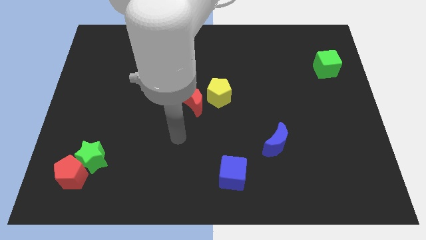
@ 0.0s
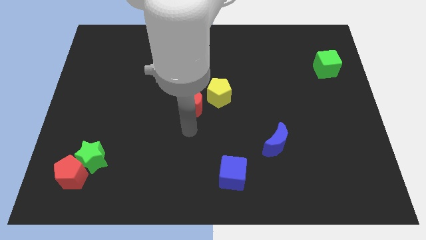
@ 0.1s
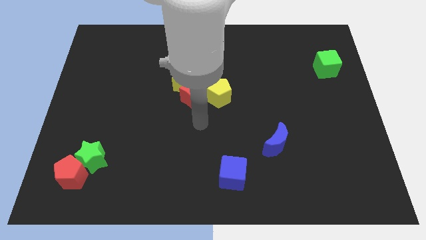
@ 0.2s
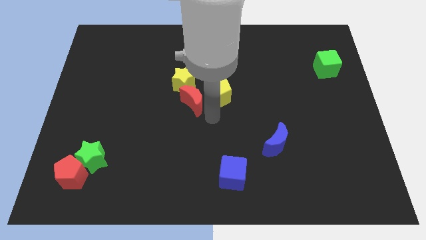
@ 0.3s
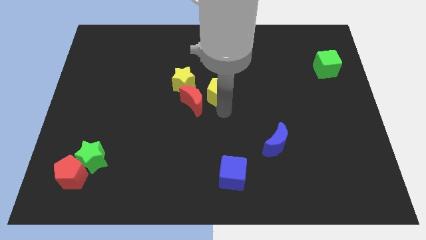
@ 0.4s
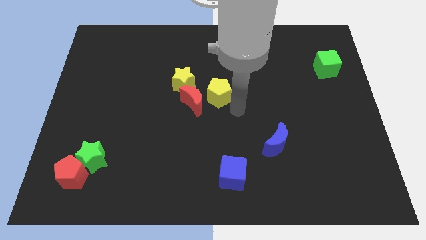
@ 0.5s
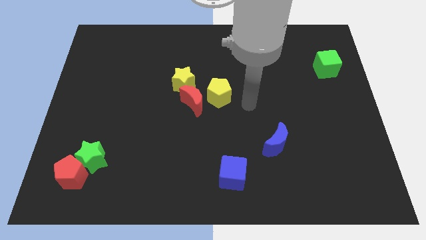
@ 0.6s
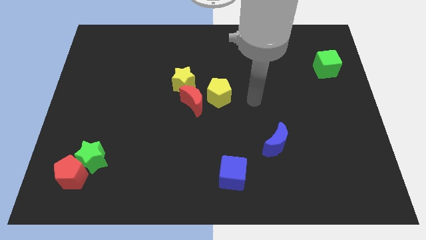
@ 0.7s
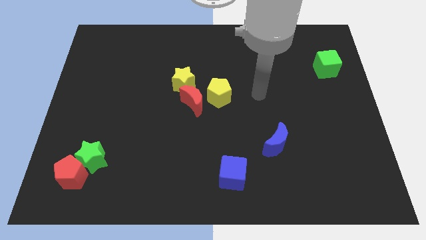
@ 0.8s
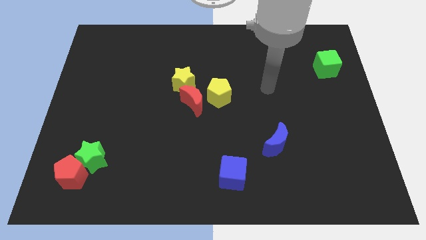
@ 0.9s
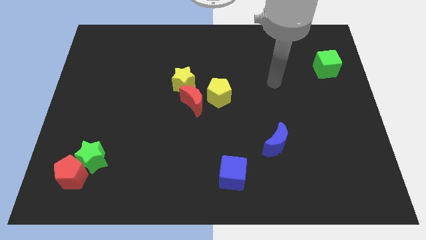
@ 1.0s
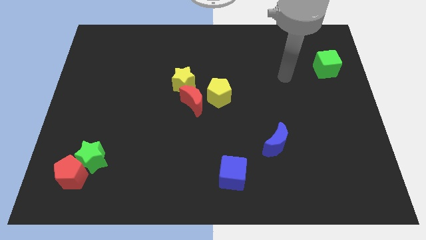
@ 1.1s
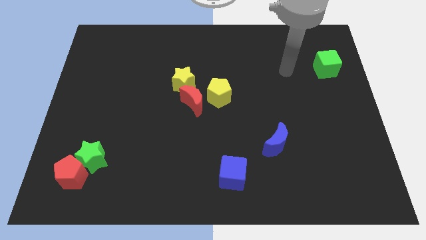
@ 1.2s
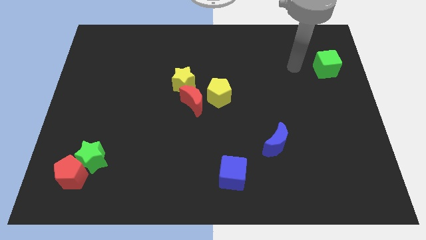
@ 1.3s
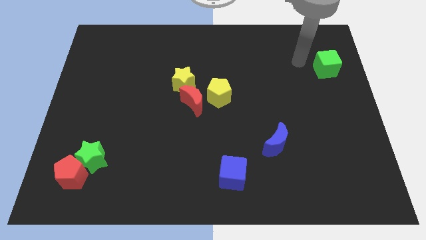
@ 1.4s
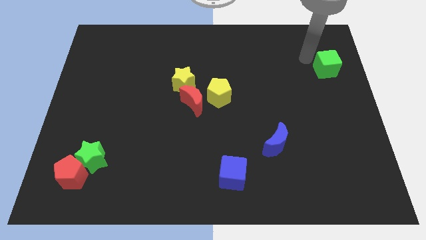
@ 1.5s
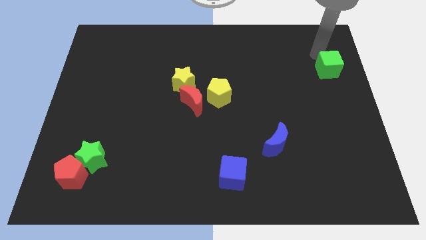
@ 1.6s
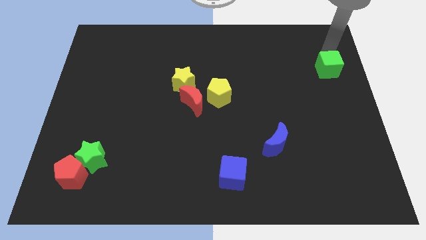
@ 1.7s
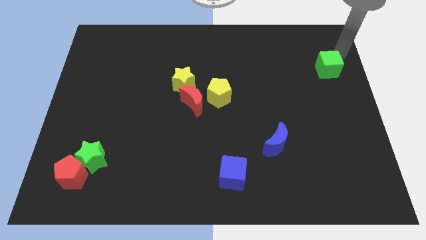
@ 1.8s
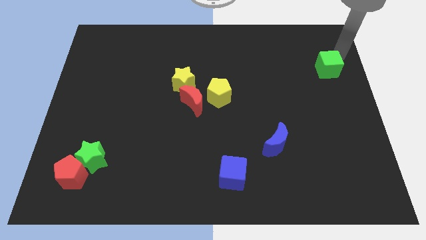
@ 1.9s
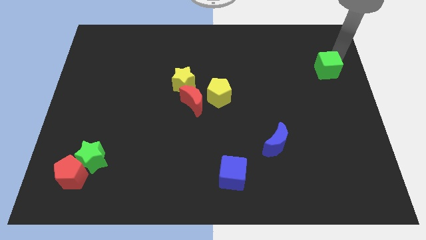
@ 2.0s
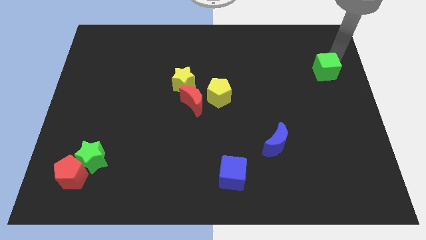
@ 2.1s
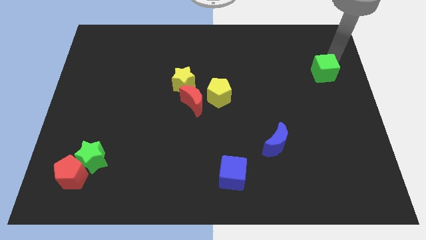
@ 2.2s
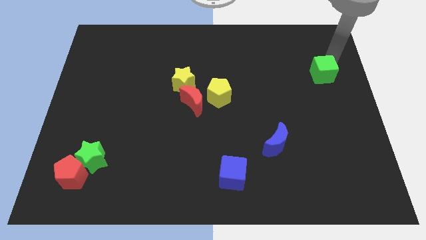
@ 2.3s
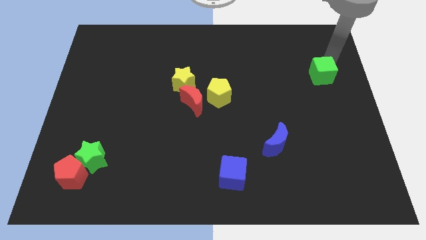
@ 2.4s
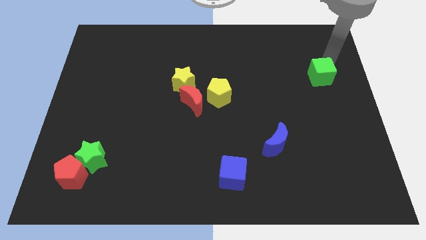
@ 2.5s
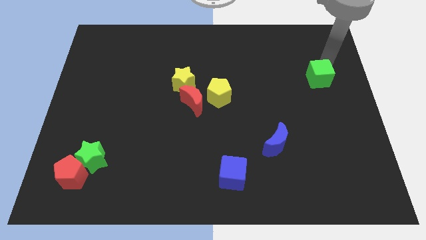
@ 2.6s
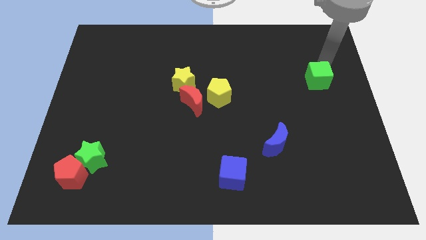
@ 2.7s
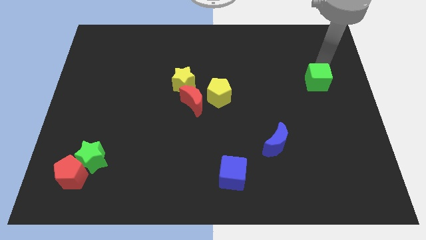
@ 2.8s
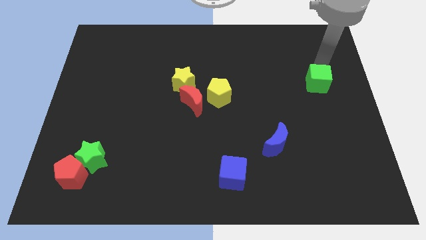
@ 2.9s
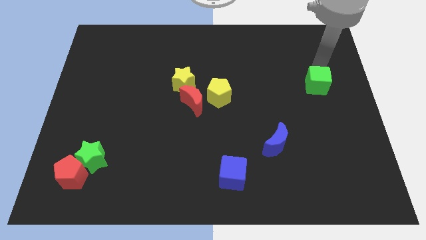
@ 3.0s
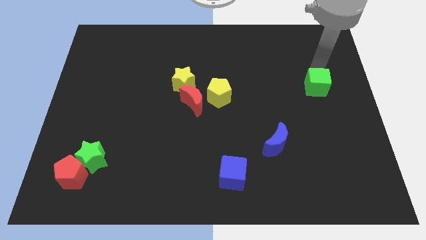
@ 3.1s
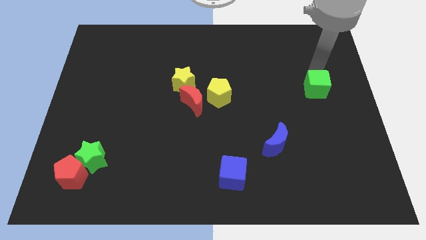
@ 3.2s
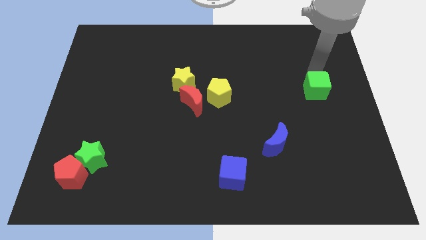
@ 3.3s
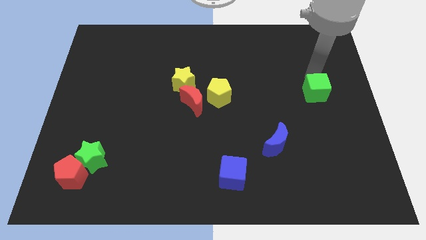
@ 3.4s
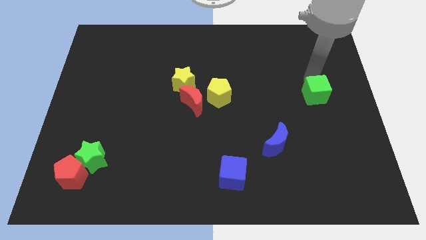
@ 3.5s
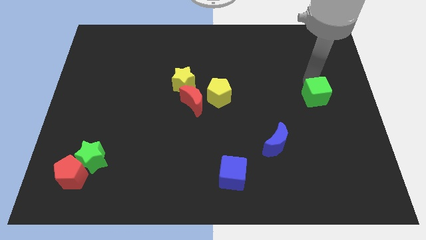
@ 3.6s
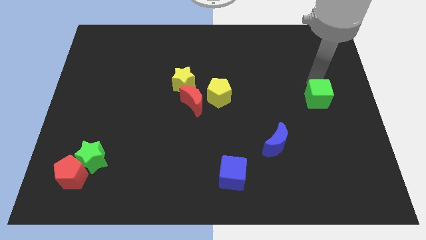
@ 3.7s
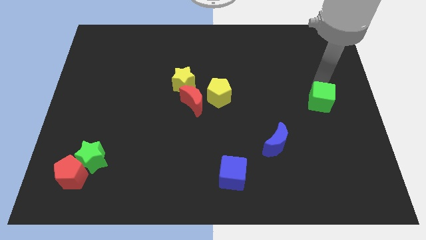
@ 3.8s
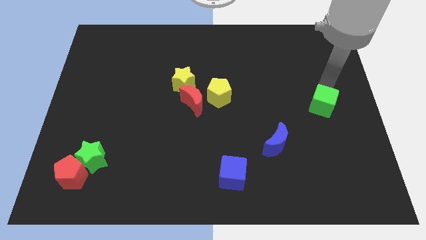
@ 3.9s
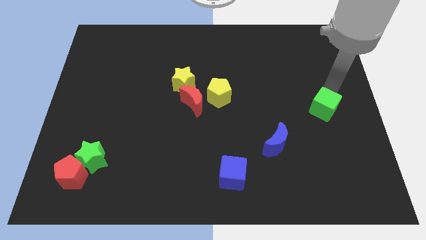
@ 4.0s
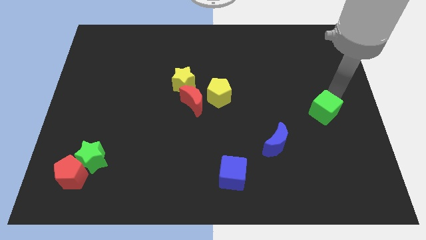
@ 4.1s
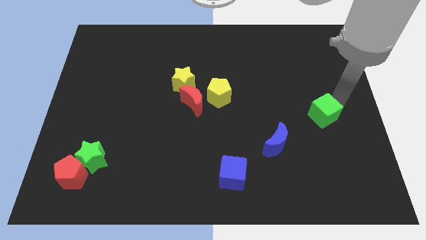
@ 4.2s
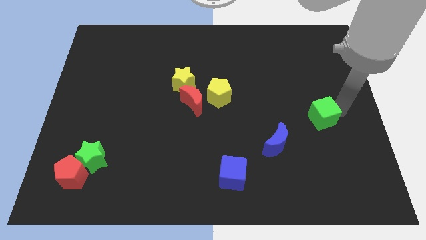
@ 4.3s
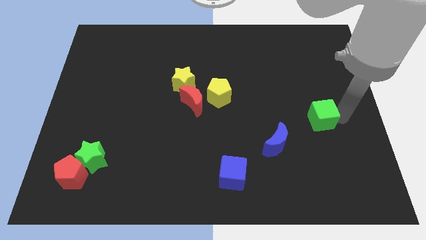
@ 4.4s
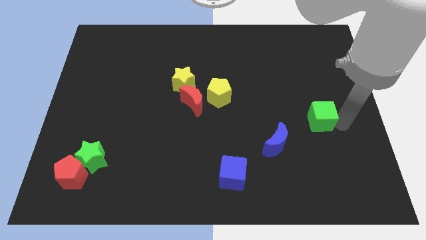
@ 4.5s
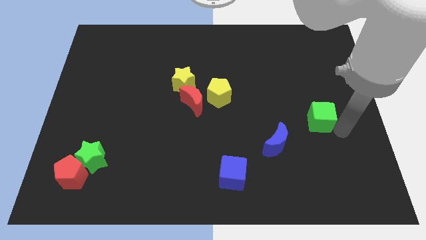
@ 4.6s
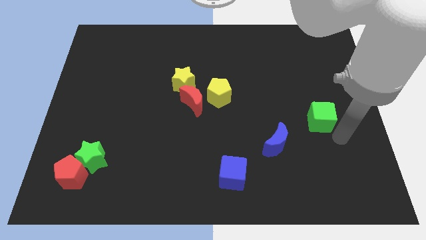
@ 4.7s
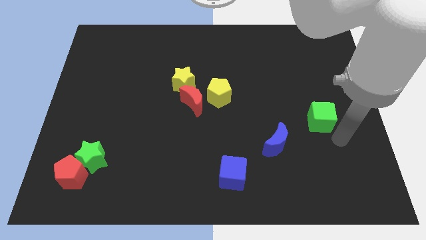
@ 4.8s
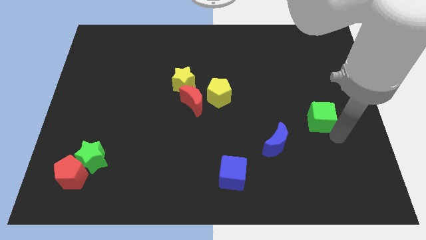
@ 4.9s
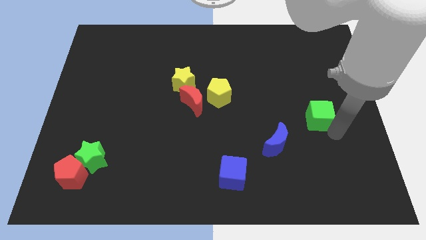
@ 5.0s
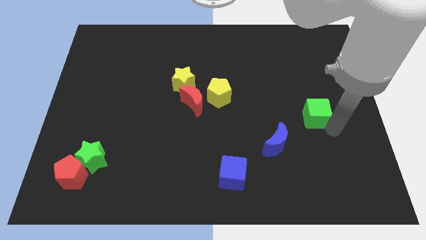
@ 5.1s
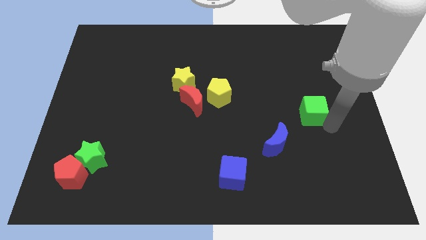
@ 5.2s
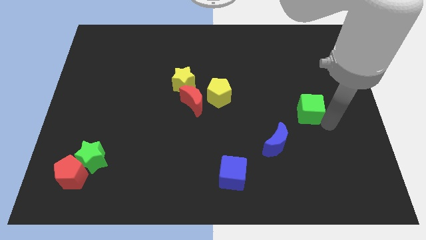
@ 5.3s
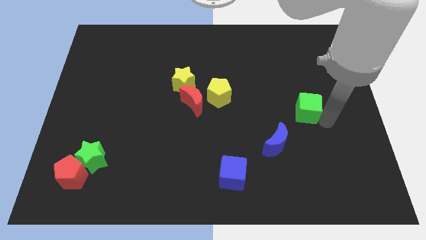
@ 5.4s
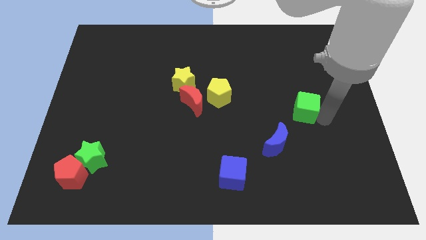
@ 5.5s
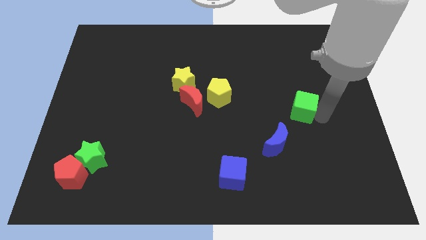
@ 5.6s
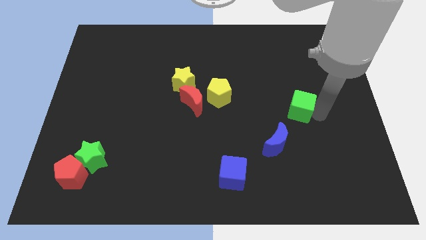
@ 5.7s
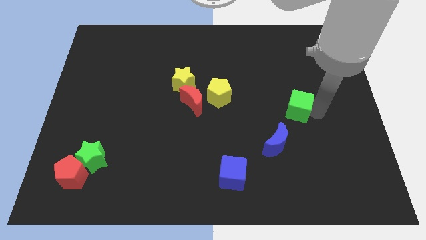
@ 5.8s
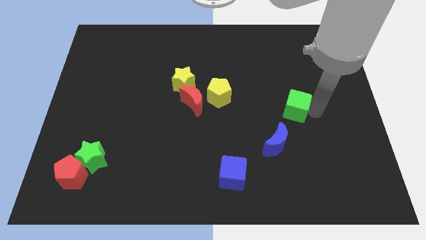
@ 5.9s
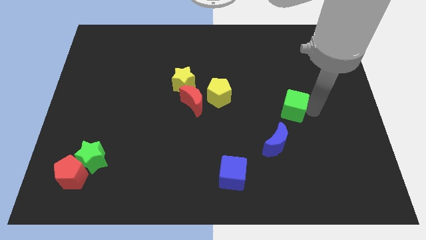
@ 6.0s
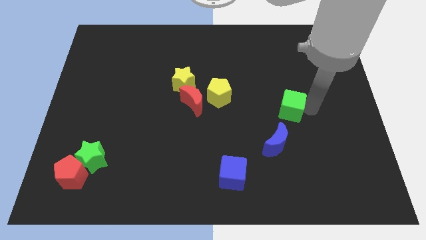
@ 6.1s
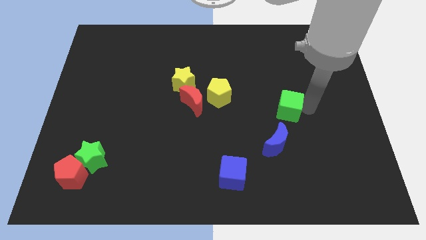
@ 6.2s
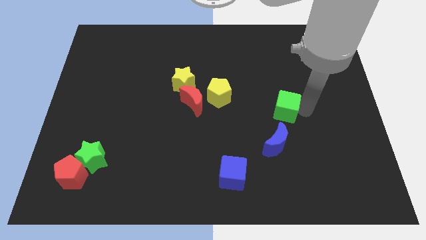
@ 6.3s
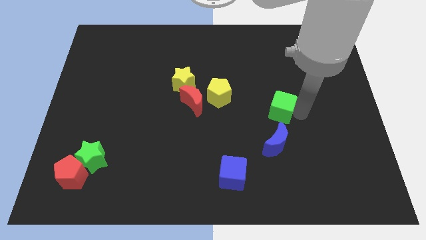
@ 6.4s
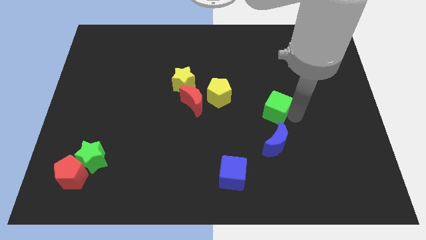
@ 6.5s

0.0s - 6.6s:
slide the green cube downwards and then to the left

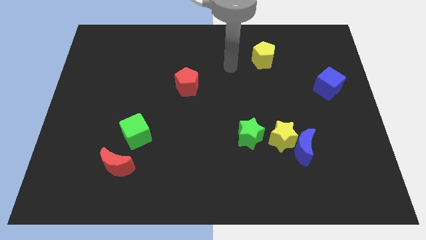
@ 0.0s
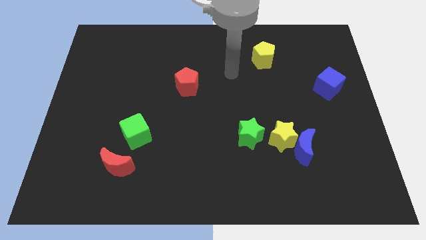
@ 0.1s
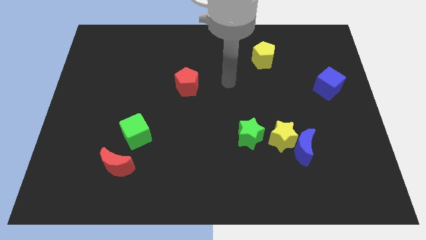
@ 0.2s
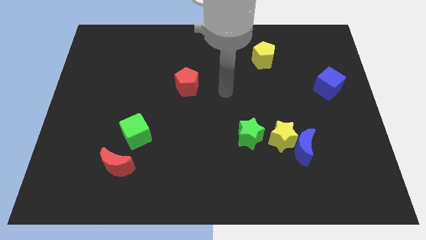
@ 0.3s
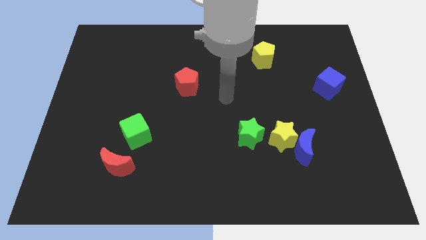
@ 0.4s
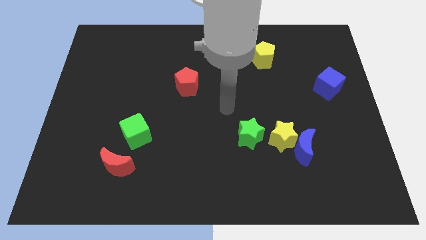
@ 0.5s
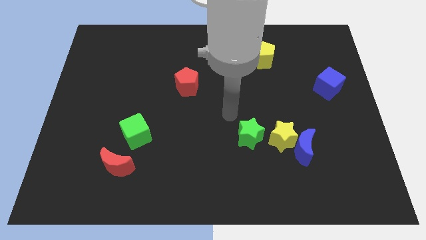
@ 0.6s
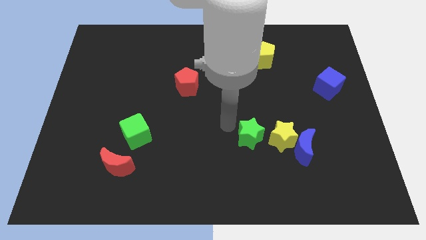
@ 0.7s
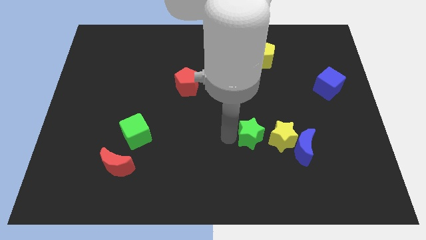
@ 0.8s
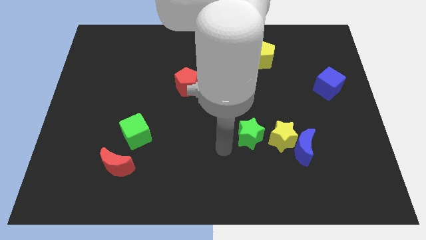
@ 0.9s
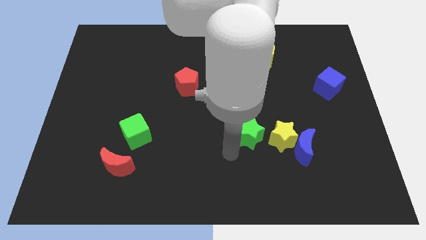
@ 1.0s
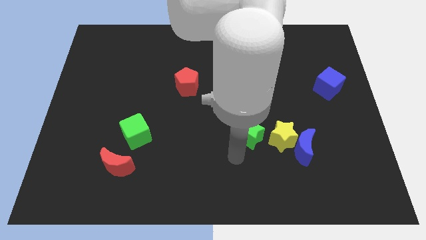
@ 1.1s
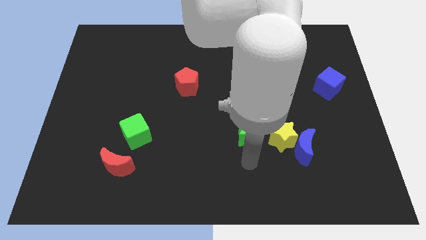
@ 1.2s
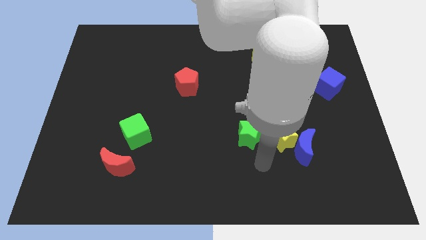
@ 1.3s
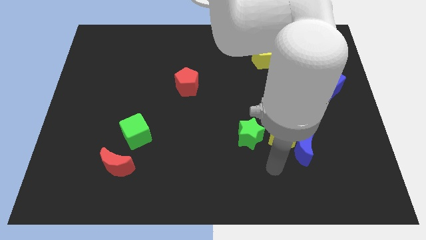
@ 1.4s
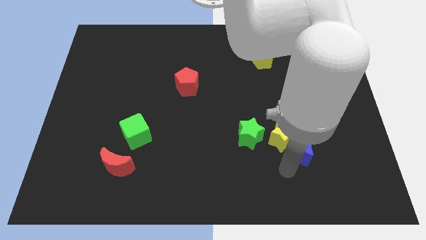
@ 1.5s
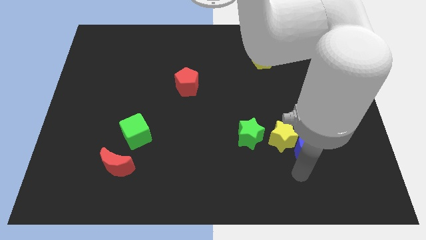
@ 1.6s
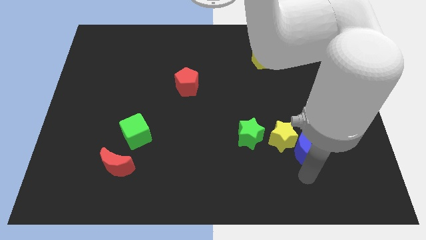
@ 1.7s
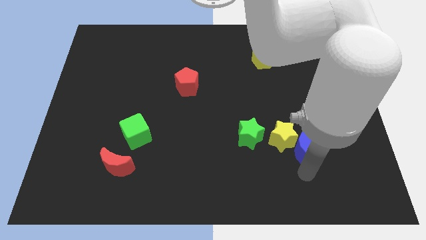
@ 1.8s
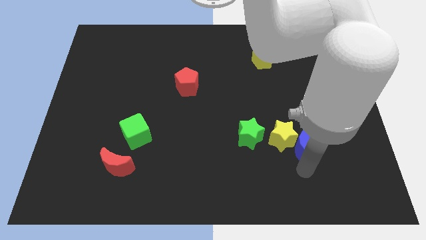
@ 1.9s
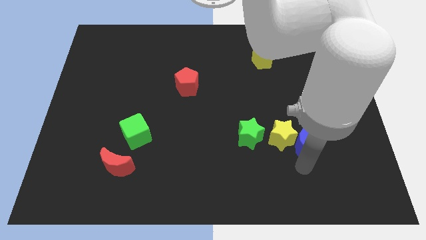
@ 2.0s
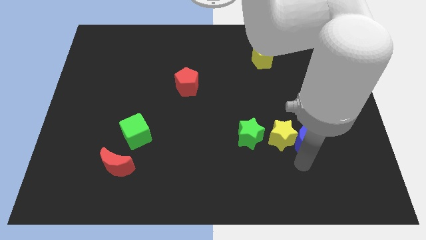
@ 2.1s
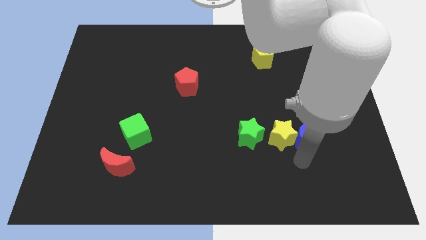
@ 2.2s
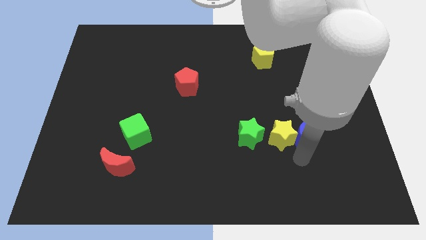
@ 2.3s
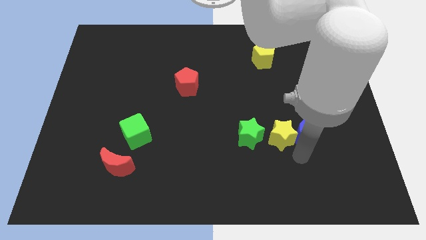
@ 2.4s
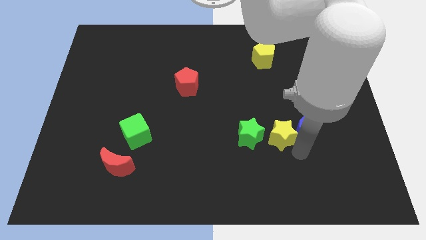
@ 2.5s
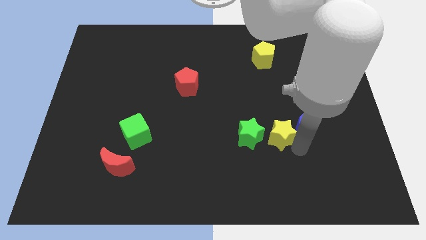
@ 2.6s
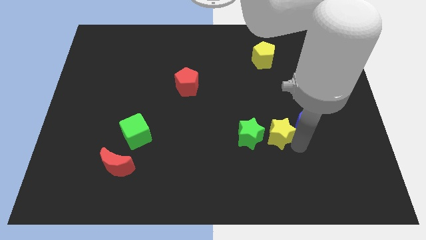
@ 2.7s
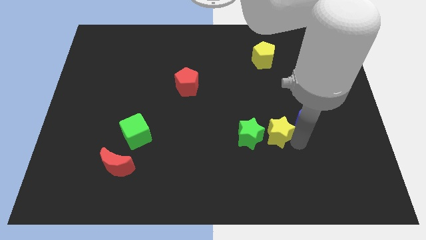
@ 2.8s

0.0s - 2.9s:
slide the blue moon upwards a bit
